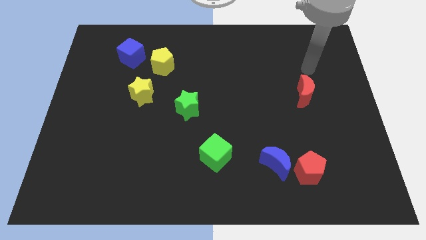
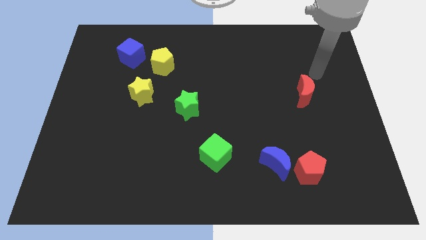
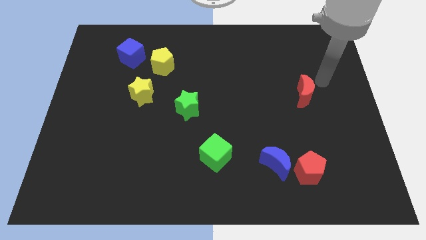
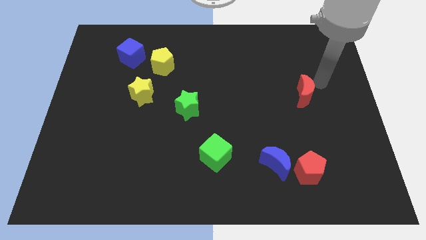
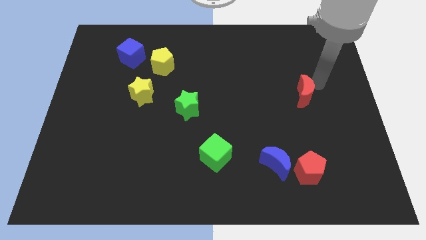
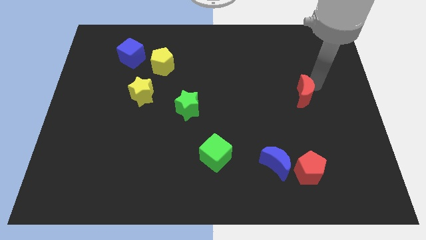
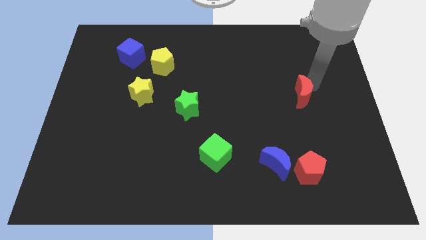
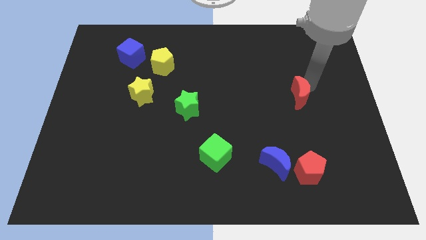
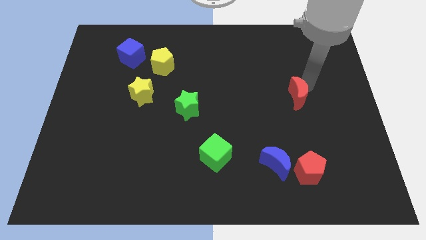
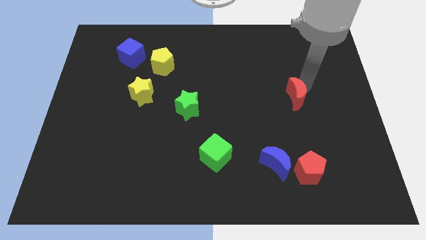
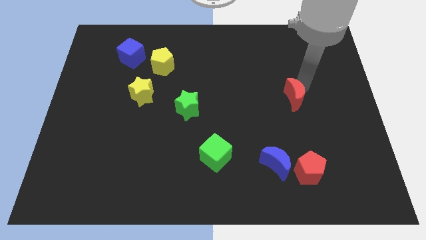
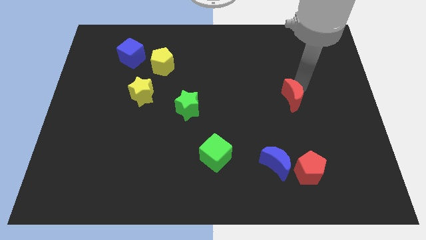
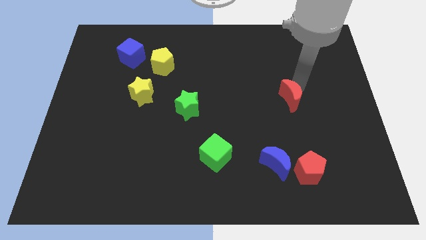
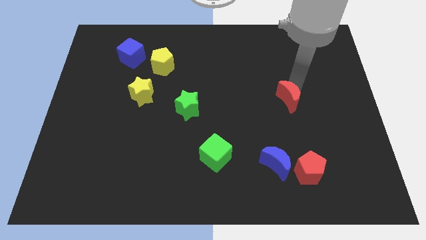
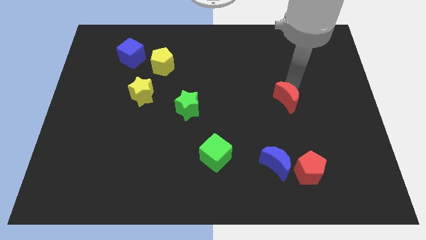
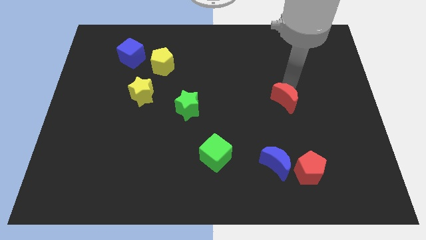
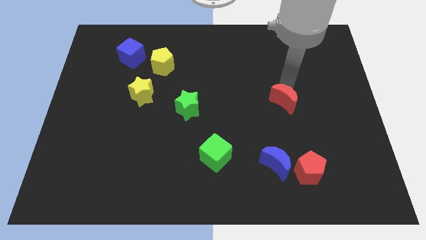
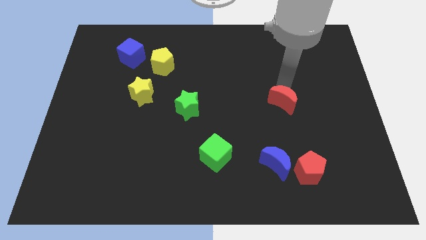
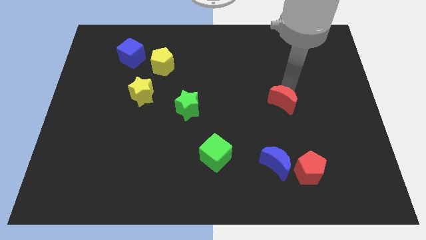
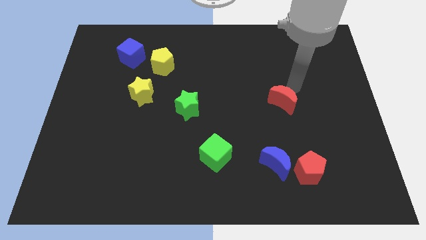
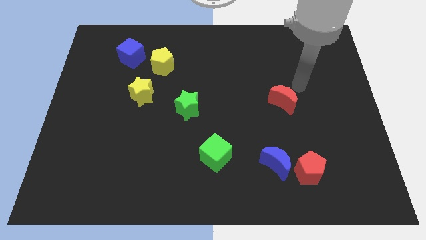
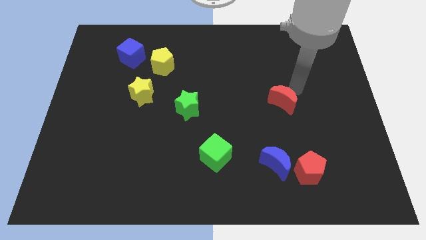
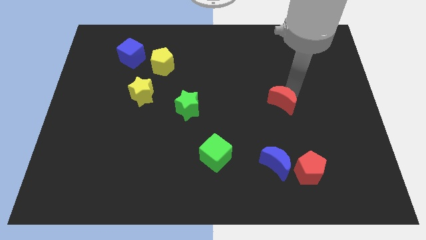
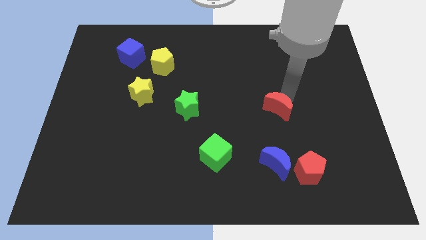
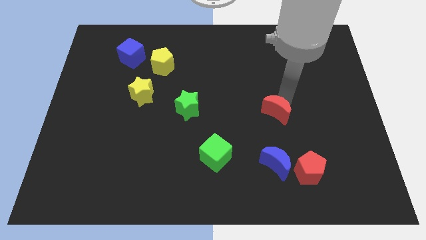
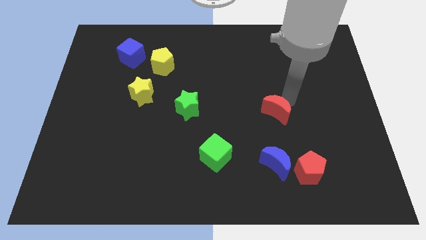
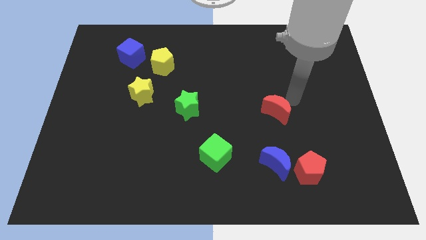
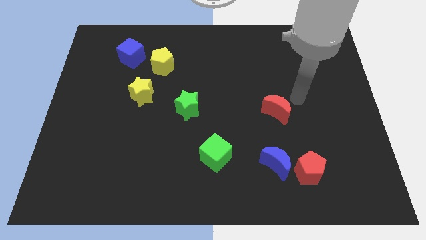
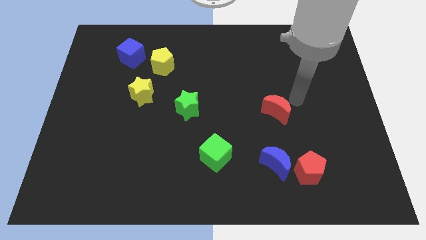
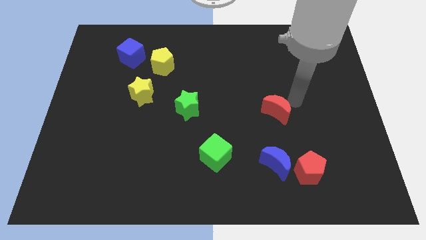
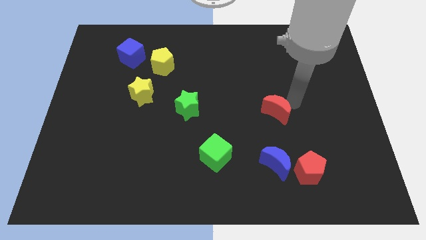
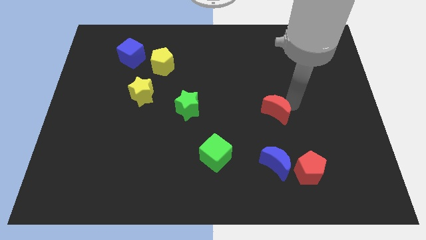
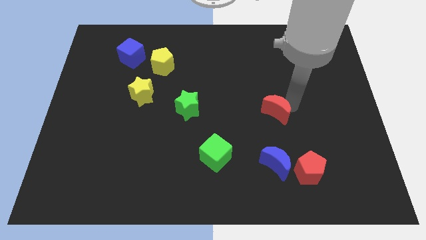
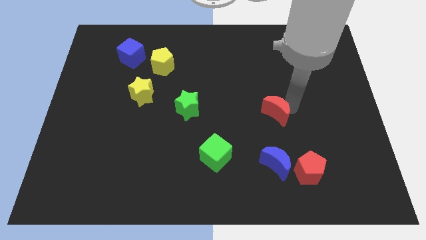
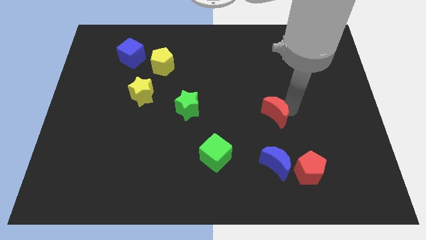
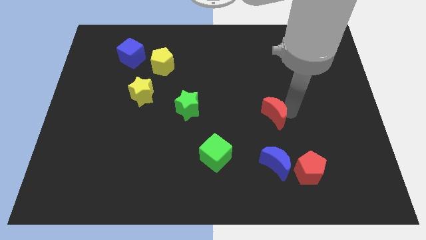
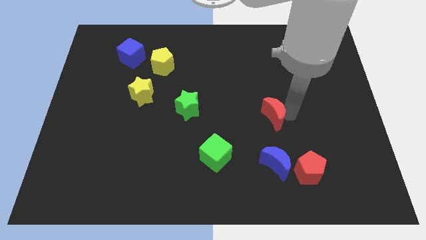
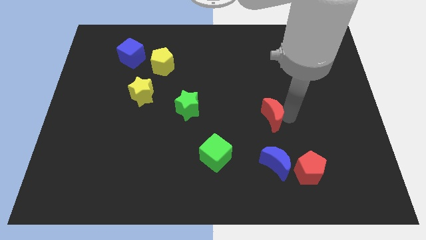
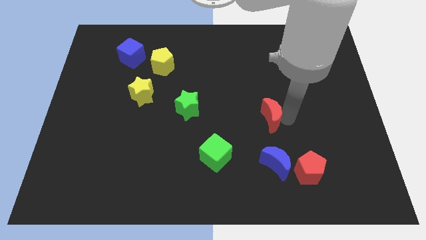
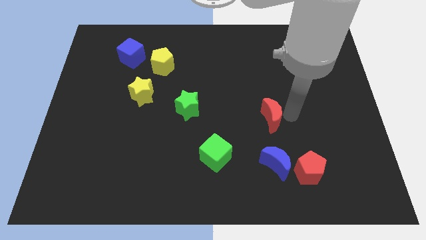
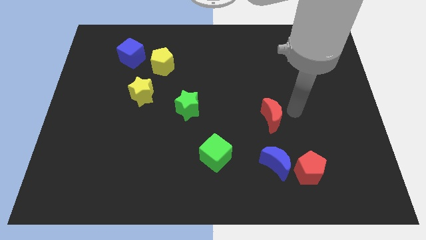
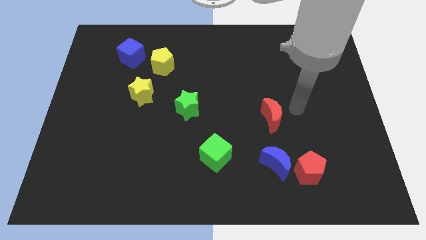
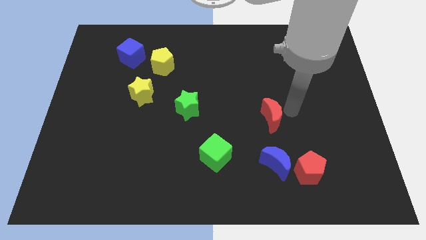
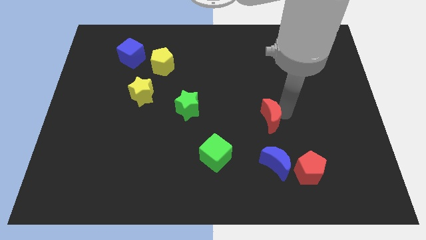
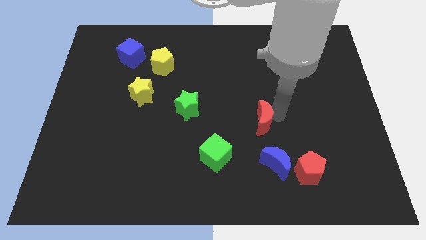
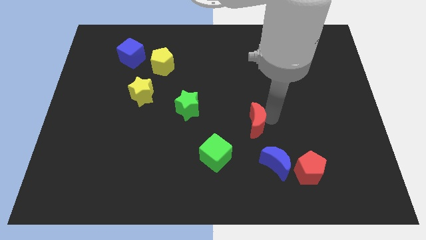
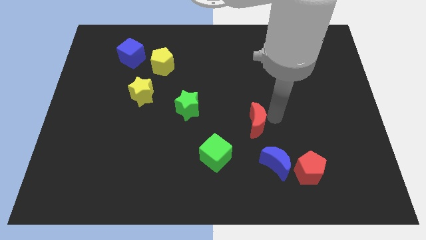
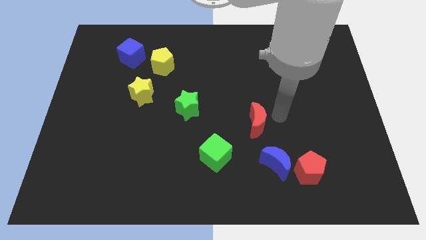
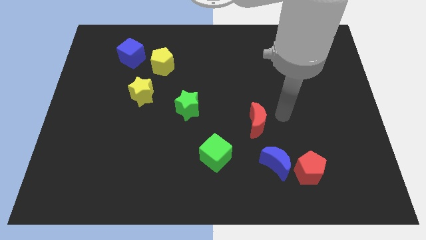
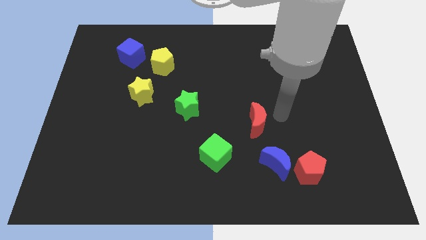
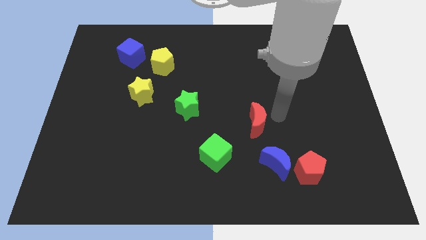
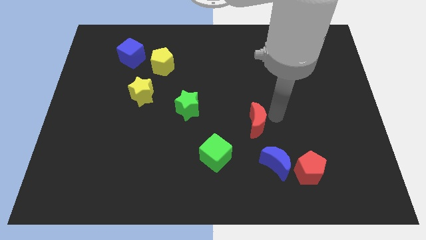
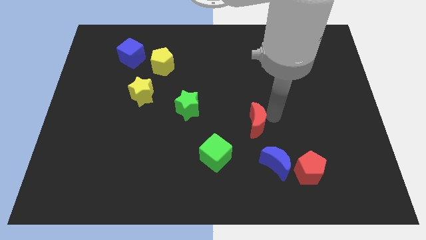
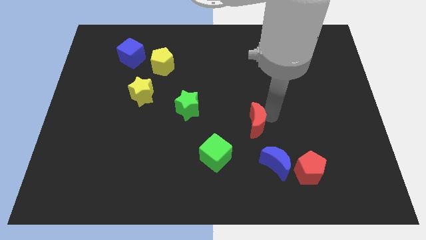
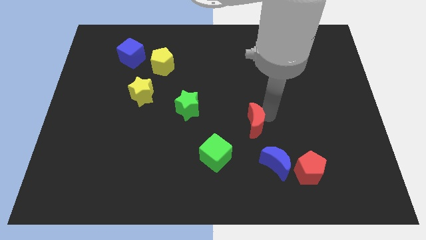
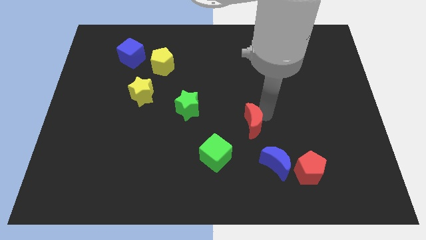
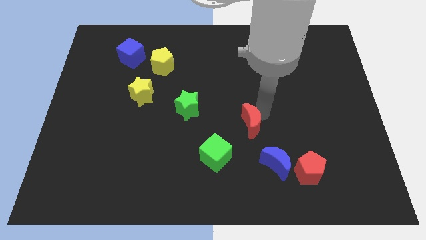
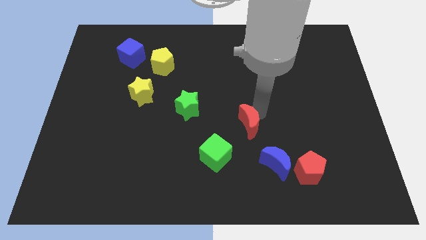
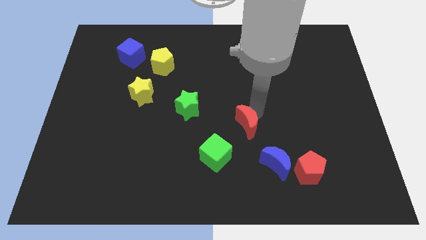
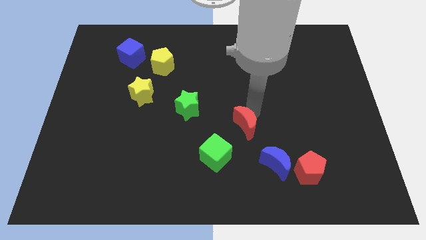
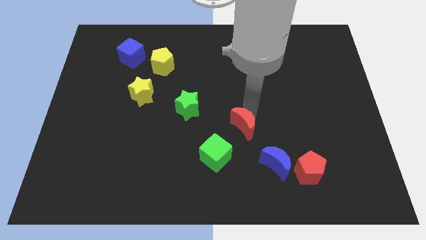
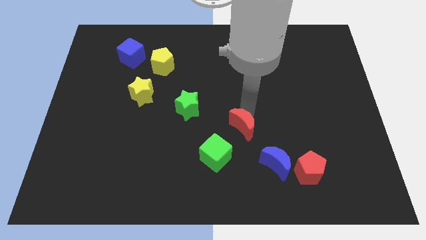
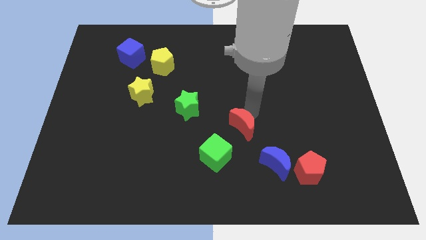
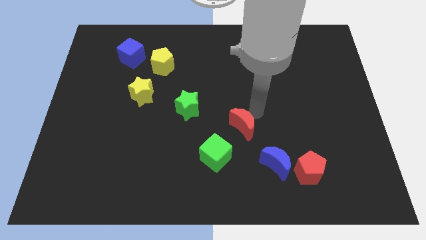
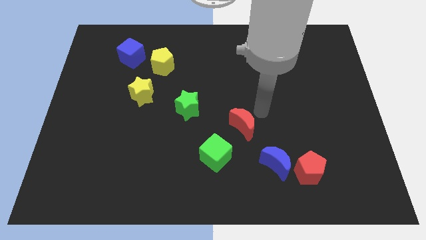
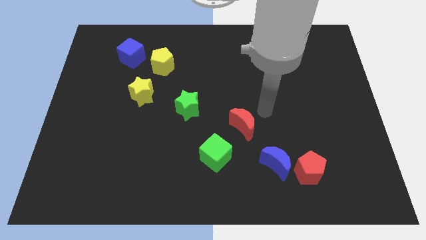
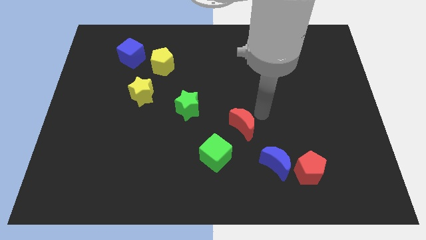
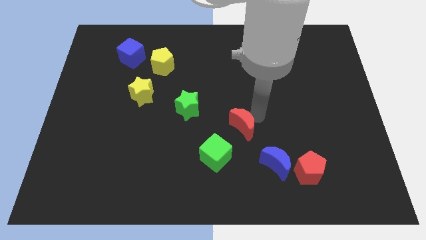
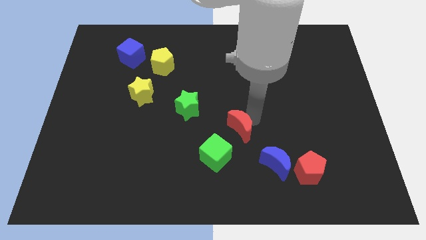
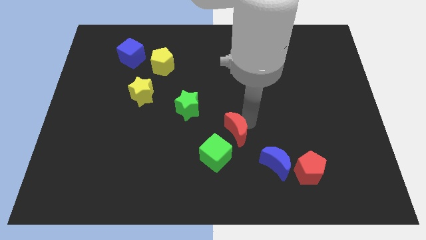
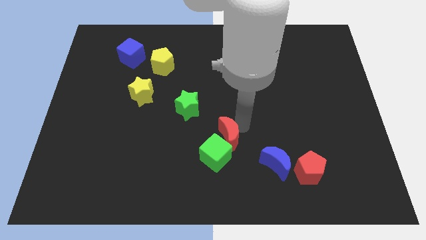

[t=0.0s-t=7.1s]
push the red moon towards the green cube

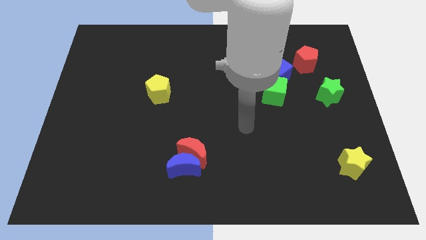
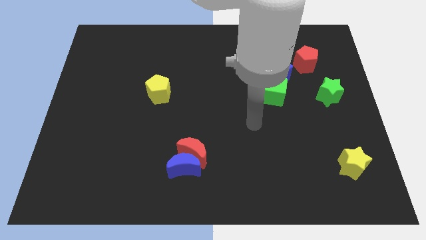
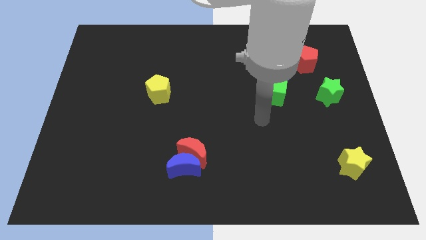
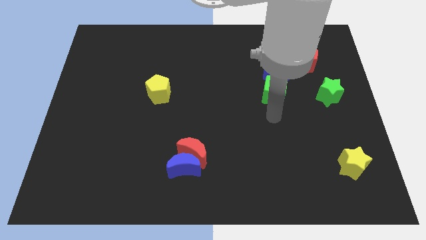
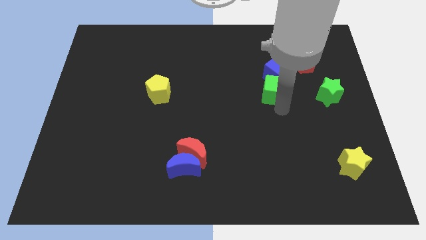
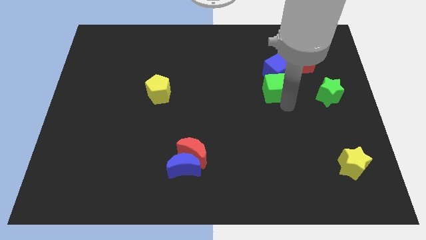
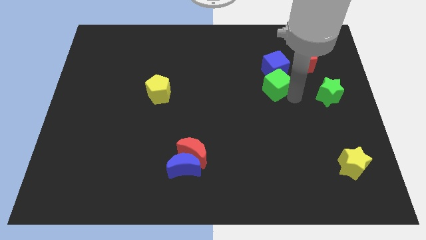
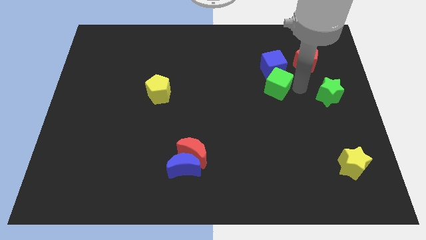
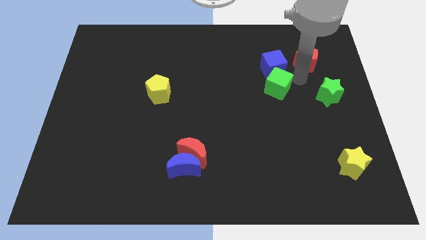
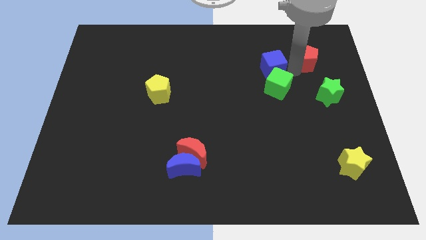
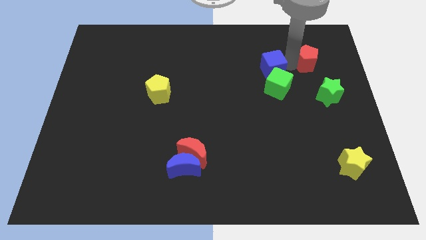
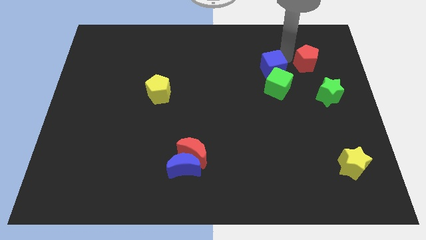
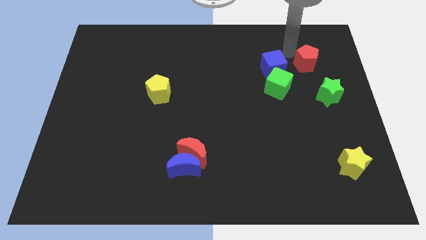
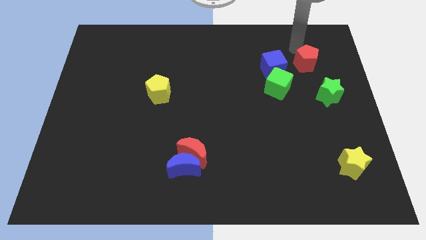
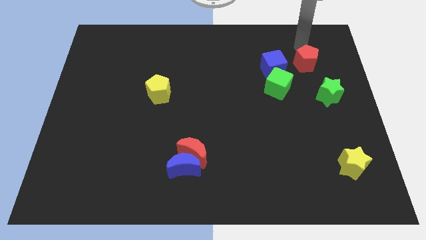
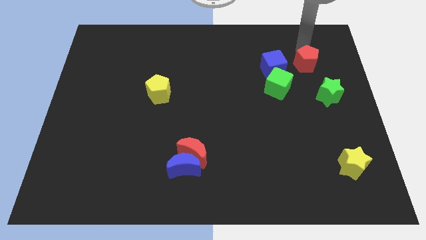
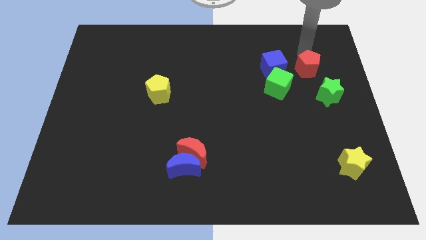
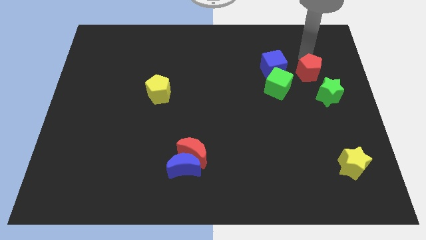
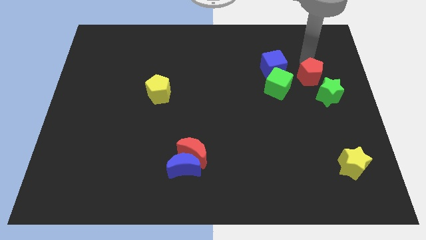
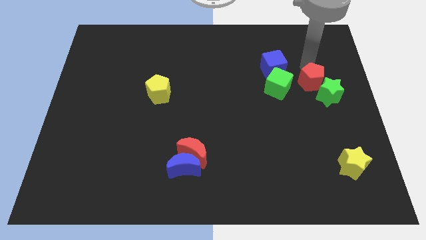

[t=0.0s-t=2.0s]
put the red pentagon next to the green star
